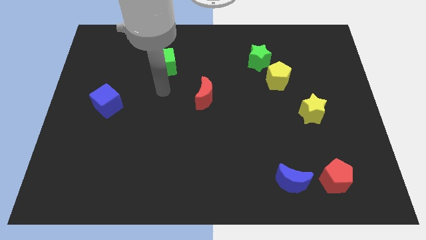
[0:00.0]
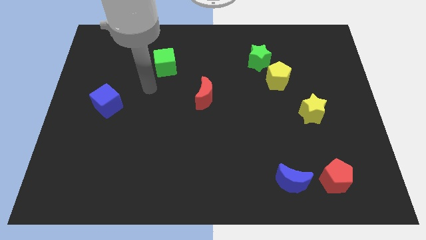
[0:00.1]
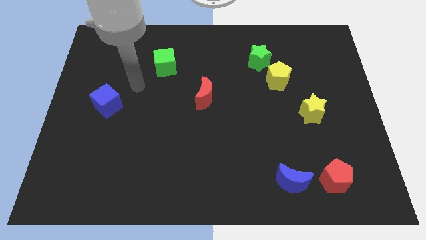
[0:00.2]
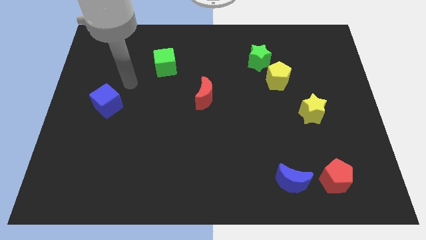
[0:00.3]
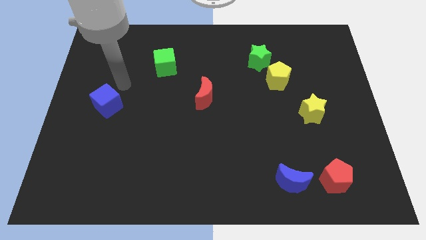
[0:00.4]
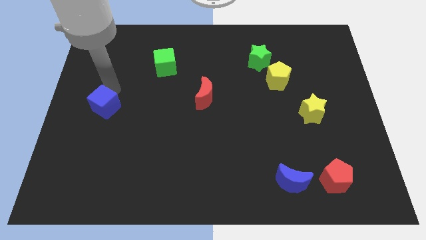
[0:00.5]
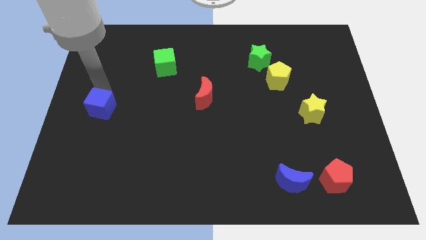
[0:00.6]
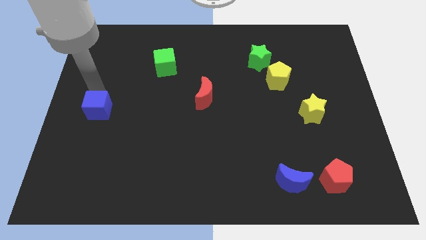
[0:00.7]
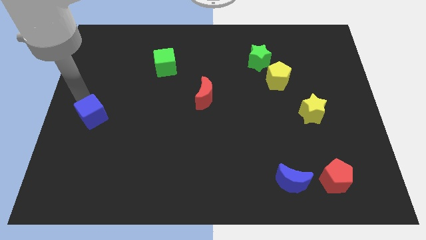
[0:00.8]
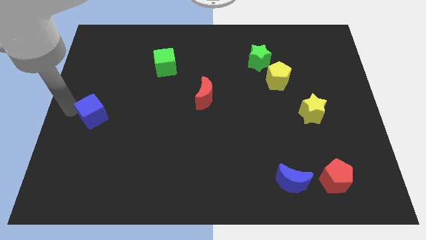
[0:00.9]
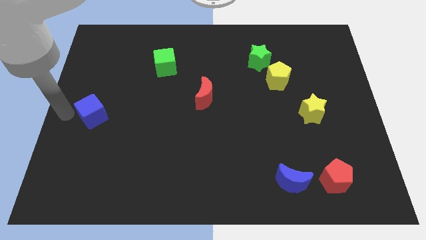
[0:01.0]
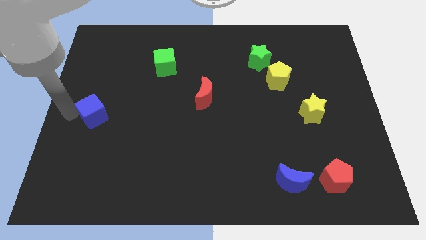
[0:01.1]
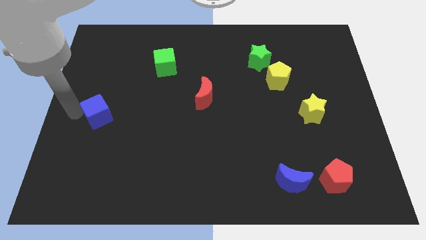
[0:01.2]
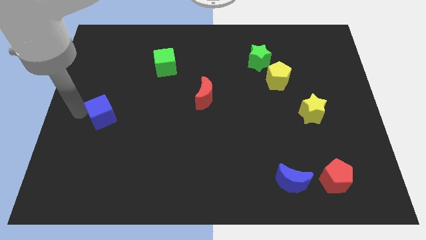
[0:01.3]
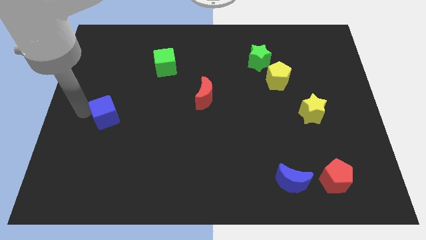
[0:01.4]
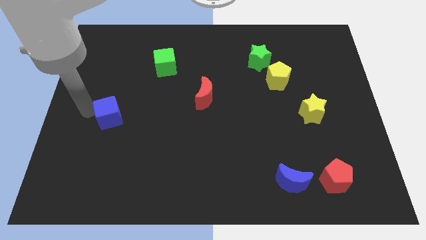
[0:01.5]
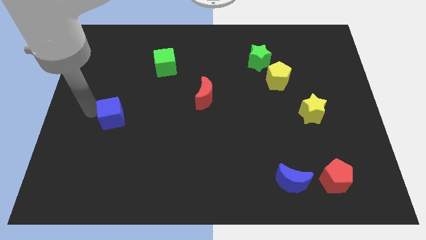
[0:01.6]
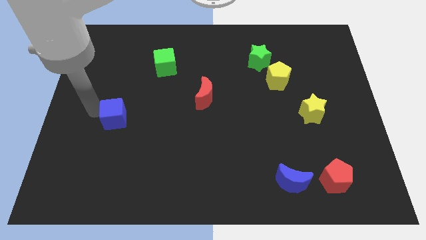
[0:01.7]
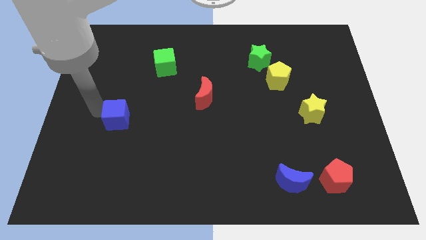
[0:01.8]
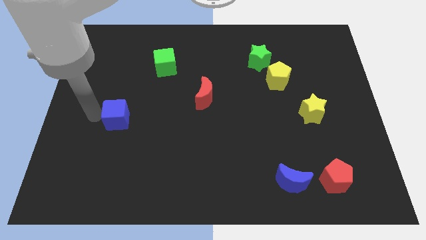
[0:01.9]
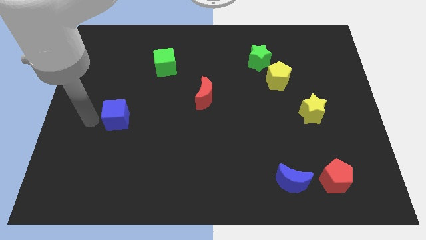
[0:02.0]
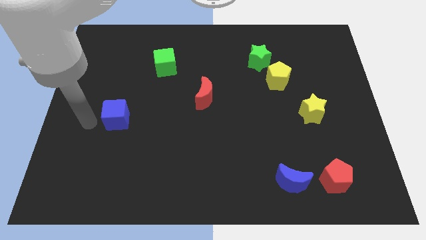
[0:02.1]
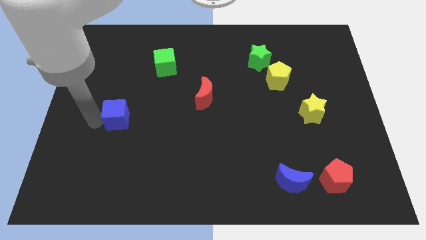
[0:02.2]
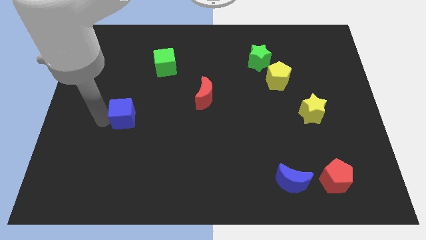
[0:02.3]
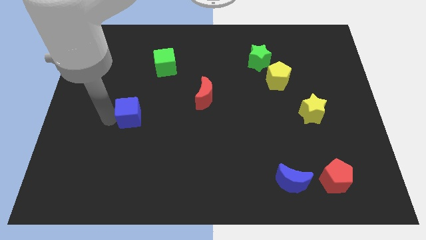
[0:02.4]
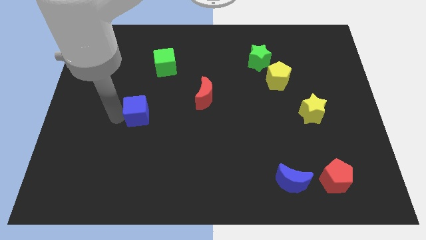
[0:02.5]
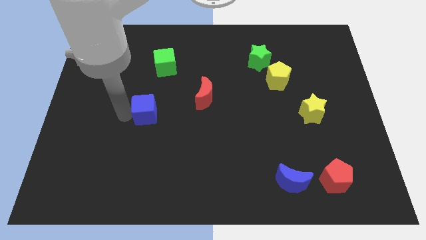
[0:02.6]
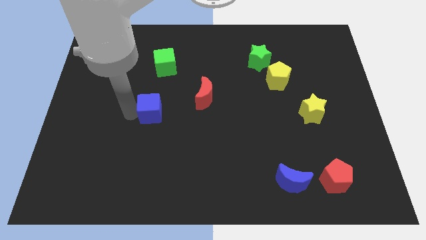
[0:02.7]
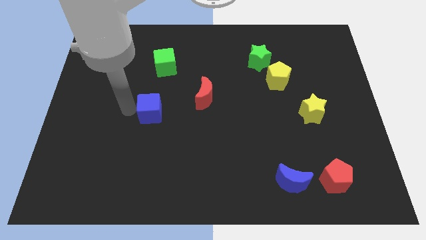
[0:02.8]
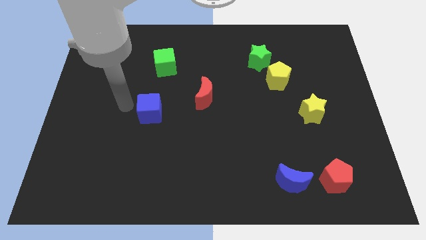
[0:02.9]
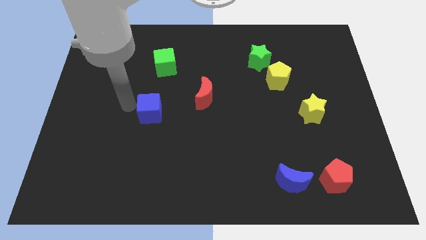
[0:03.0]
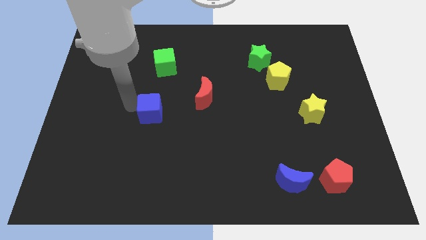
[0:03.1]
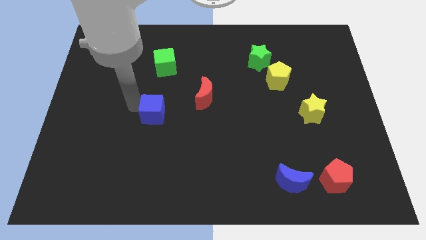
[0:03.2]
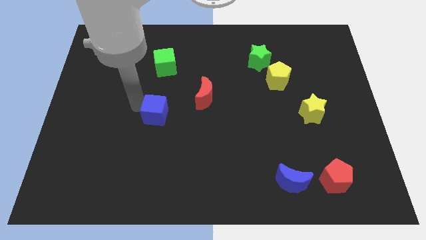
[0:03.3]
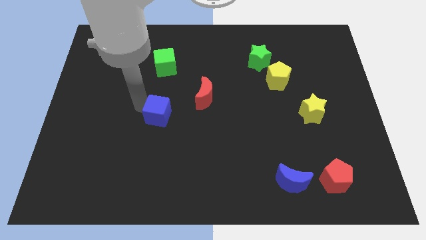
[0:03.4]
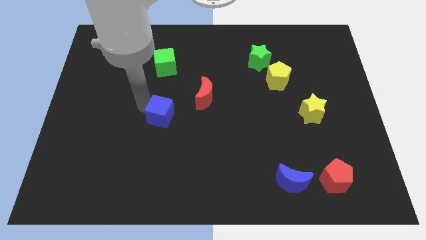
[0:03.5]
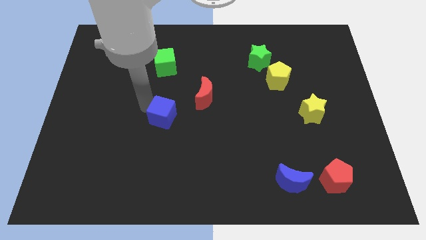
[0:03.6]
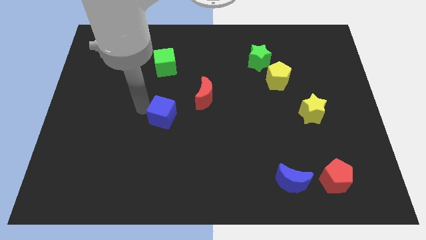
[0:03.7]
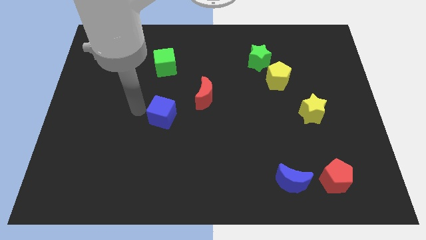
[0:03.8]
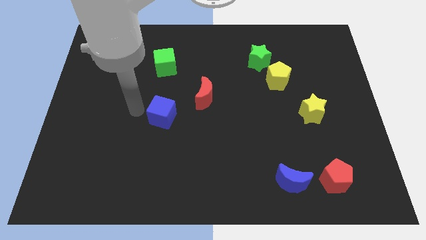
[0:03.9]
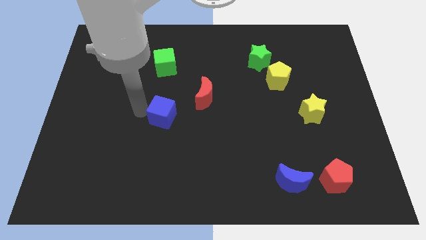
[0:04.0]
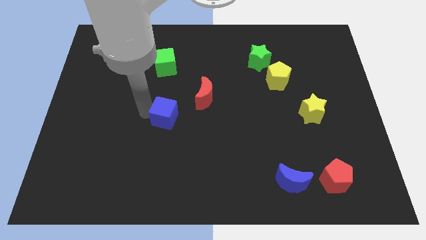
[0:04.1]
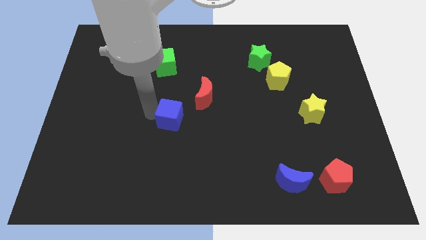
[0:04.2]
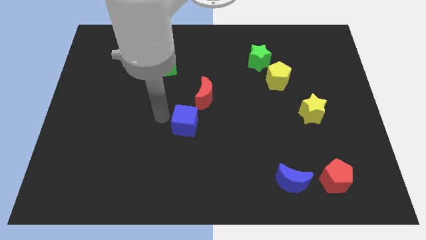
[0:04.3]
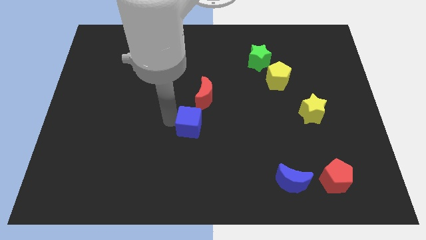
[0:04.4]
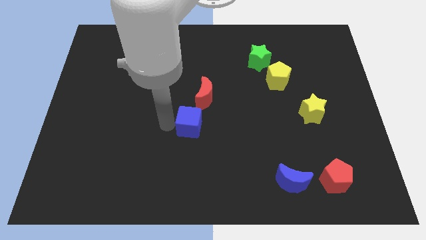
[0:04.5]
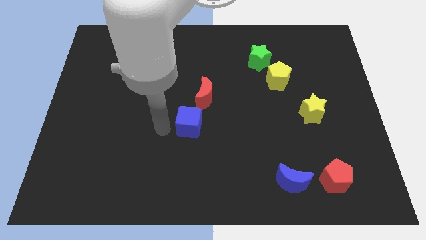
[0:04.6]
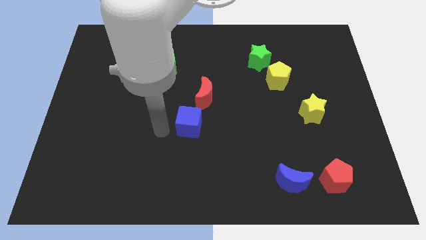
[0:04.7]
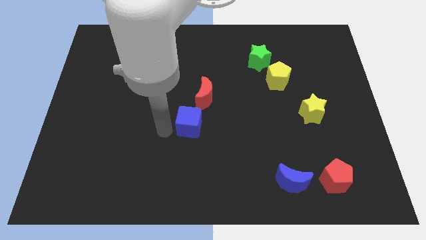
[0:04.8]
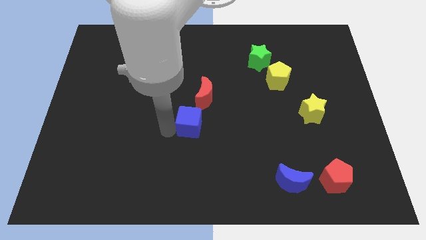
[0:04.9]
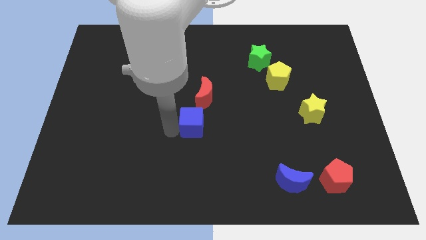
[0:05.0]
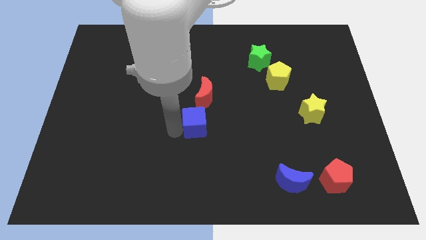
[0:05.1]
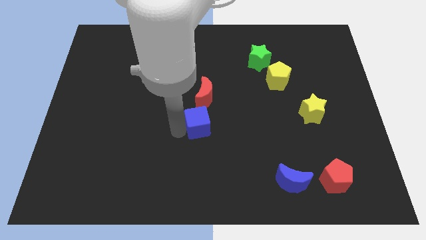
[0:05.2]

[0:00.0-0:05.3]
move the blue cube to the right

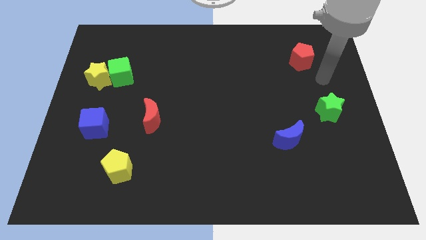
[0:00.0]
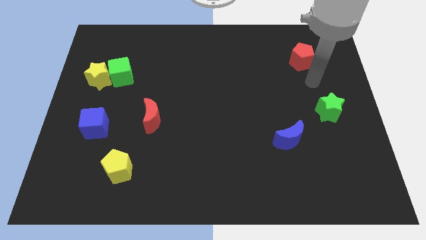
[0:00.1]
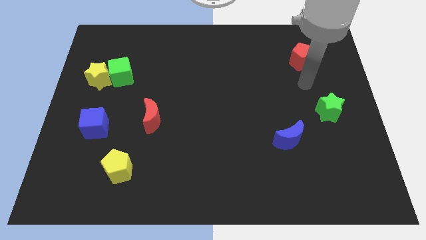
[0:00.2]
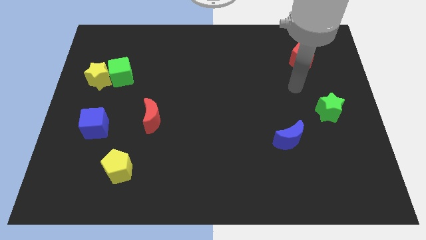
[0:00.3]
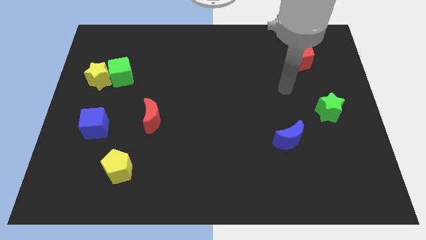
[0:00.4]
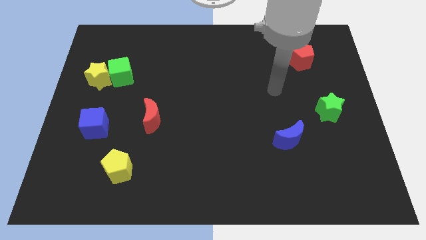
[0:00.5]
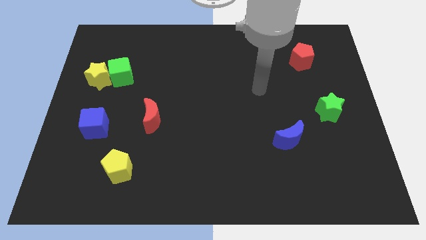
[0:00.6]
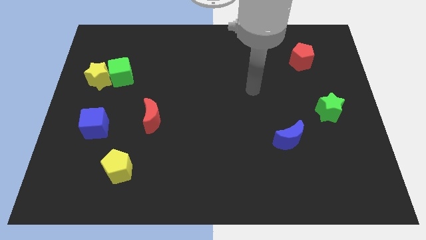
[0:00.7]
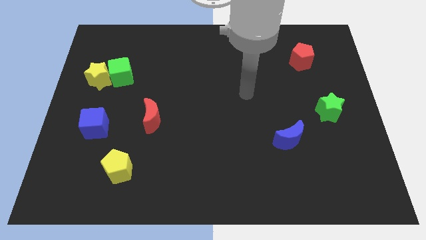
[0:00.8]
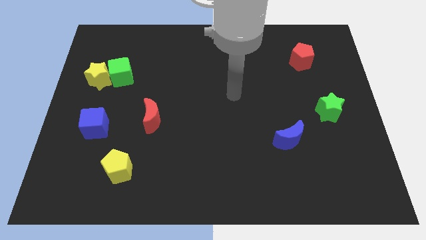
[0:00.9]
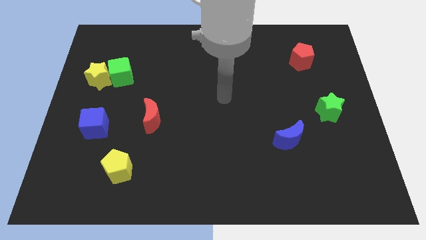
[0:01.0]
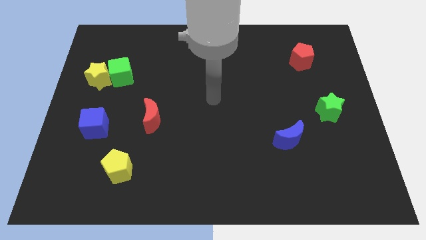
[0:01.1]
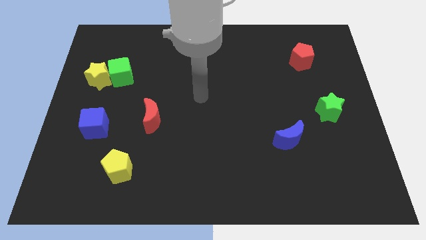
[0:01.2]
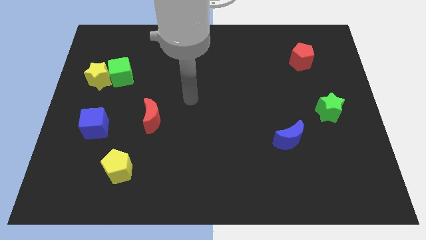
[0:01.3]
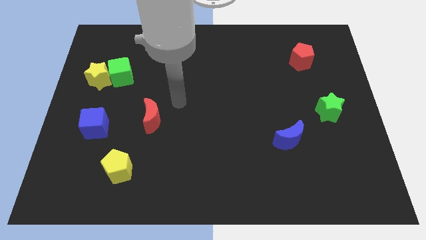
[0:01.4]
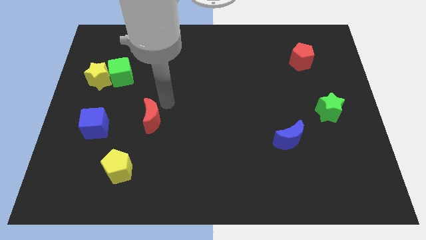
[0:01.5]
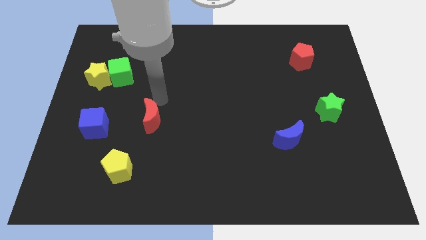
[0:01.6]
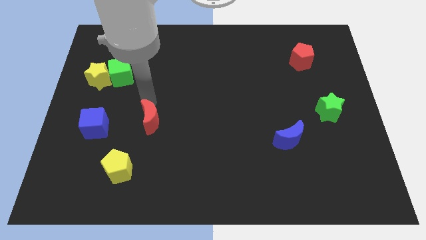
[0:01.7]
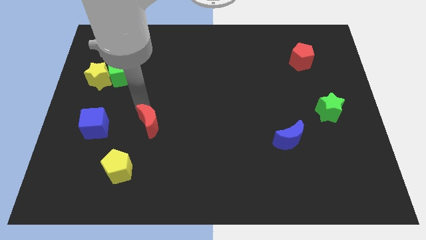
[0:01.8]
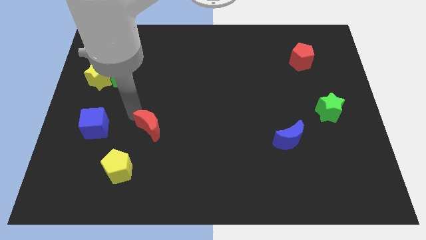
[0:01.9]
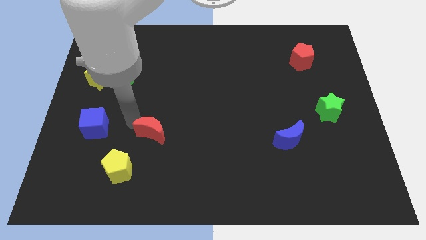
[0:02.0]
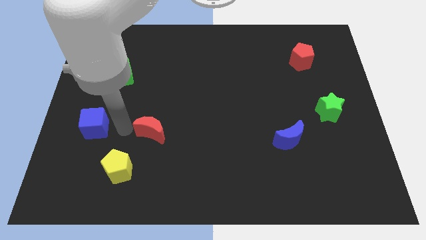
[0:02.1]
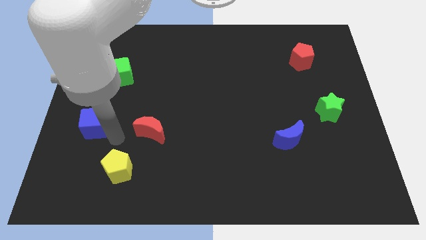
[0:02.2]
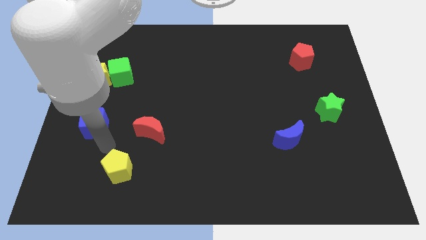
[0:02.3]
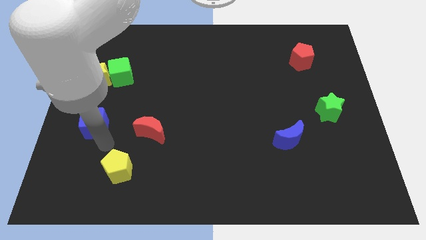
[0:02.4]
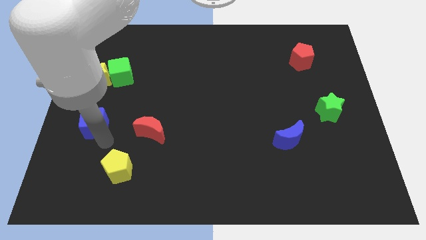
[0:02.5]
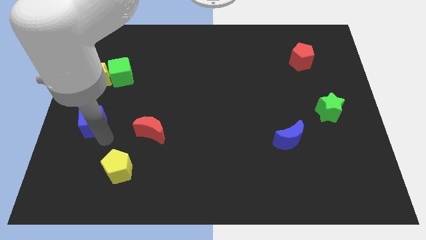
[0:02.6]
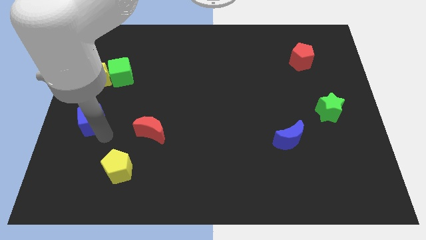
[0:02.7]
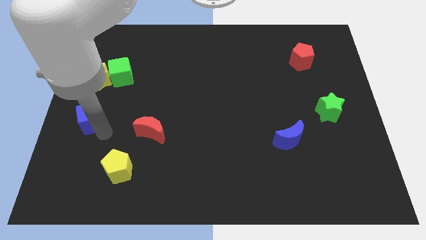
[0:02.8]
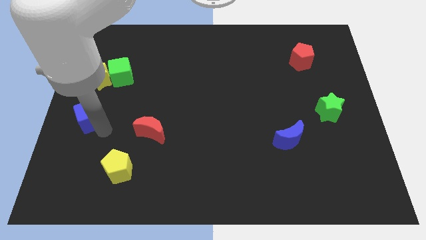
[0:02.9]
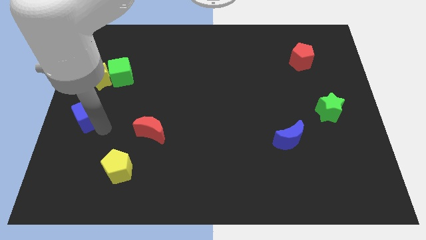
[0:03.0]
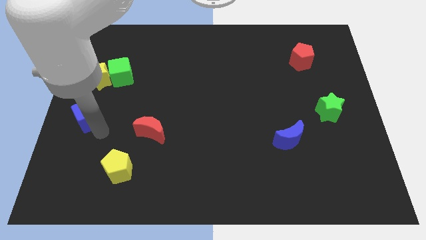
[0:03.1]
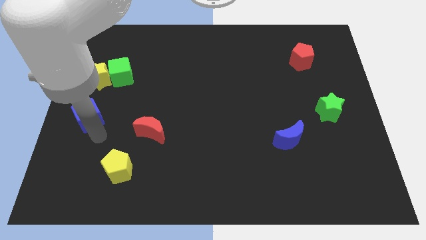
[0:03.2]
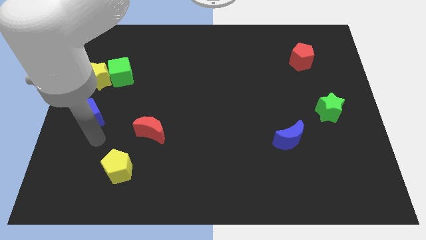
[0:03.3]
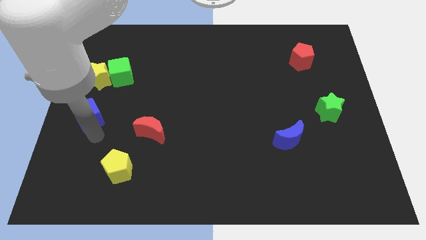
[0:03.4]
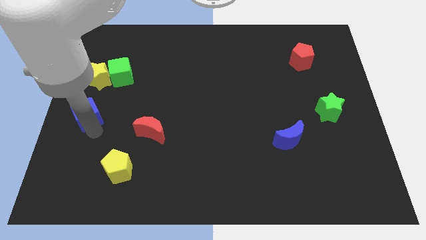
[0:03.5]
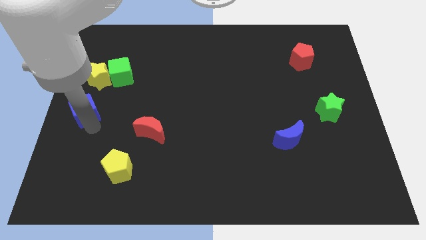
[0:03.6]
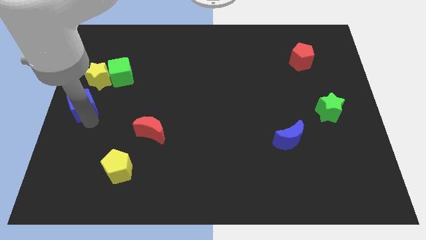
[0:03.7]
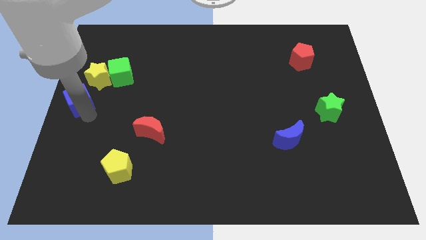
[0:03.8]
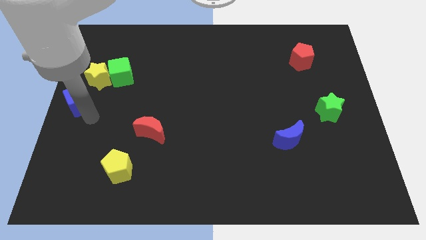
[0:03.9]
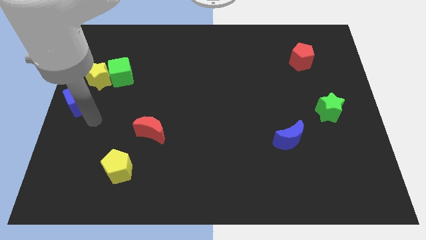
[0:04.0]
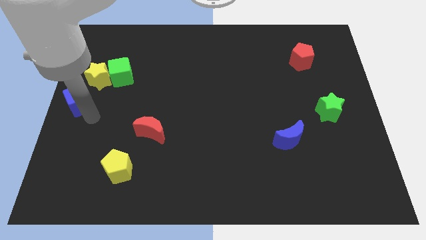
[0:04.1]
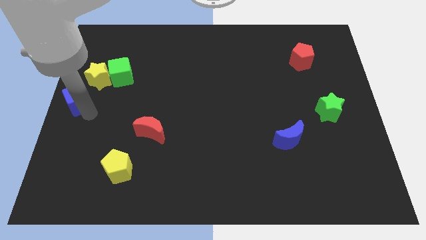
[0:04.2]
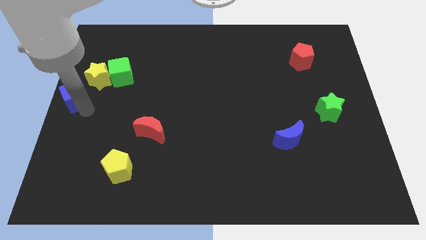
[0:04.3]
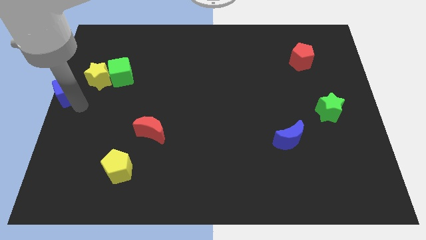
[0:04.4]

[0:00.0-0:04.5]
slightly move the blue cube up
